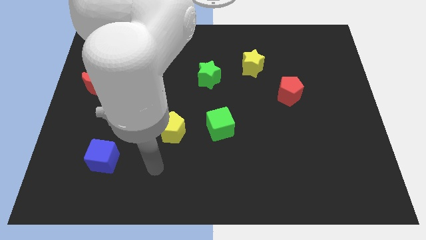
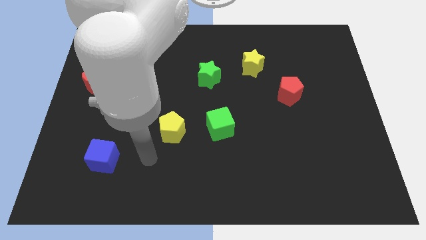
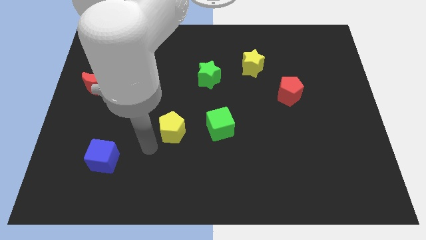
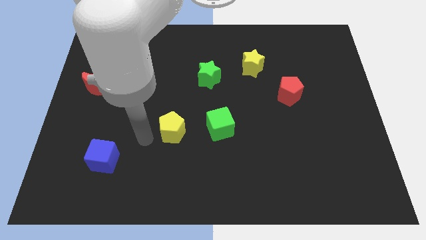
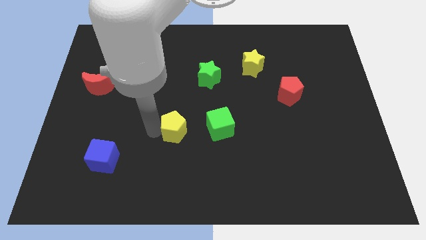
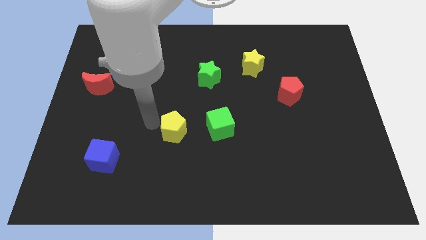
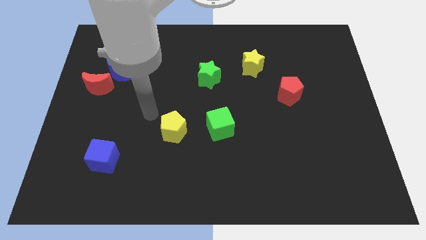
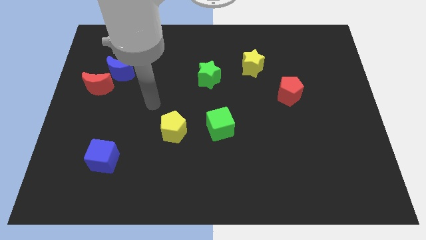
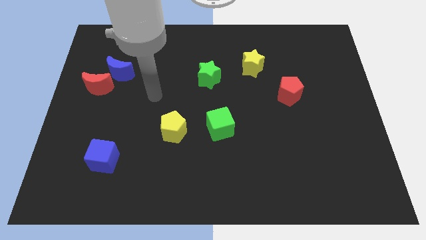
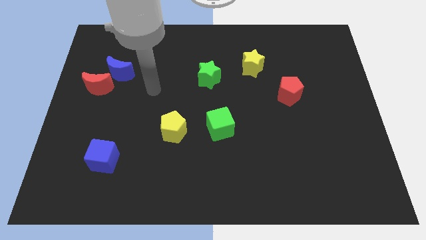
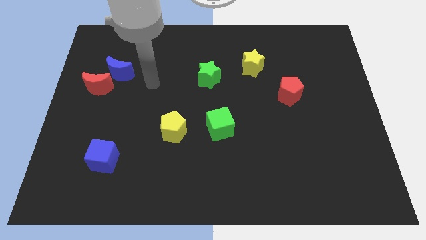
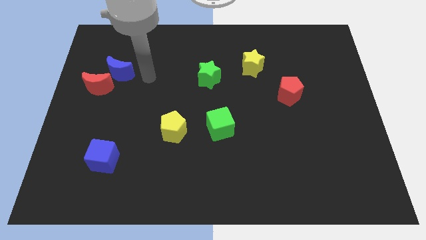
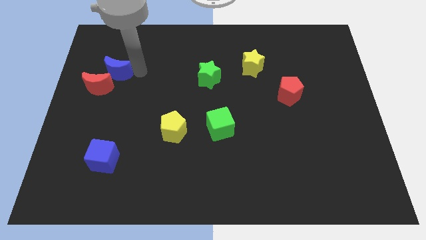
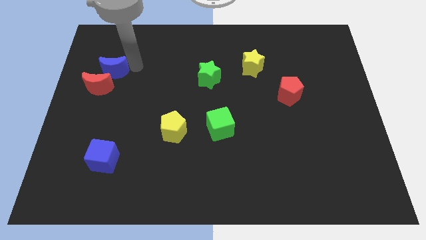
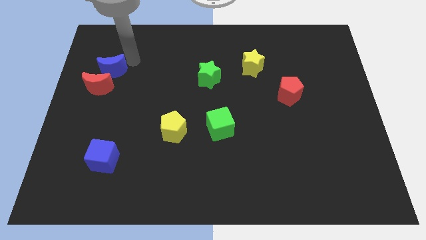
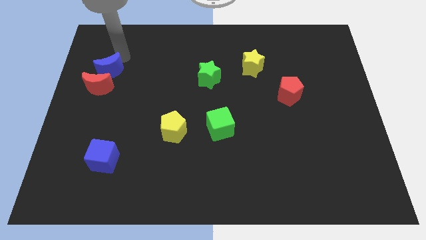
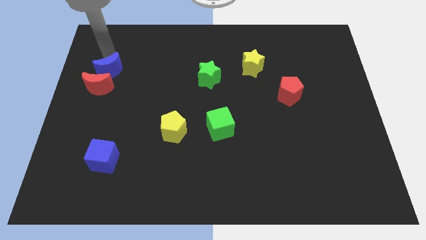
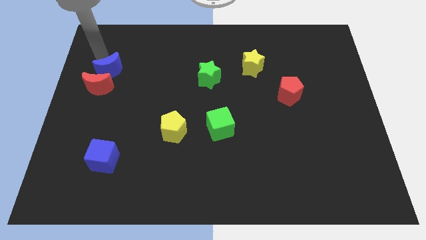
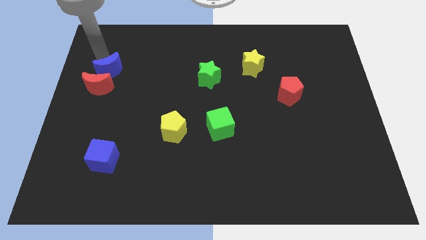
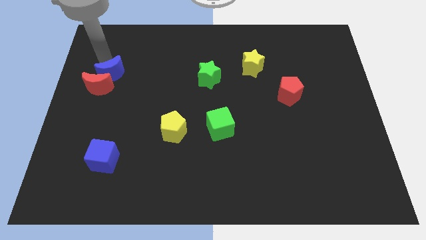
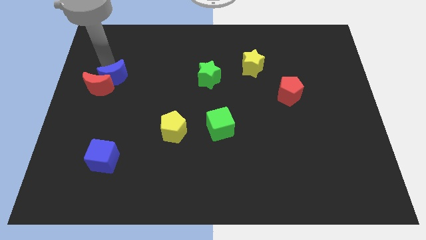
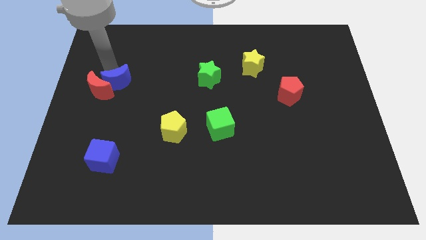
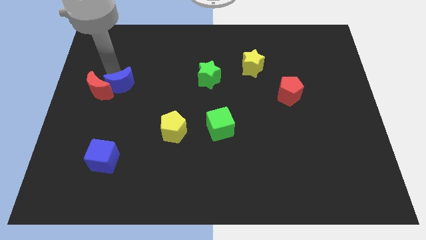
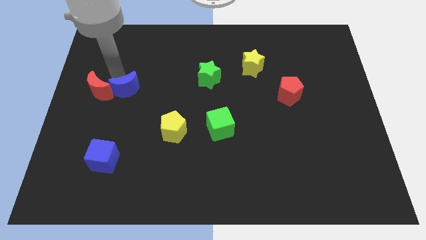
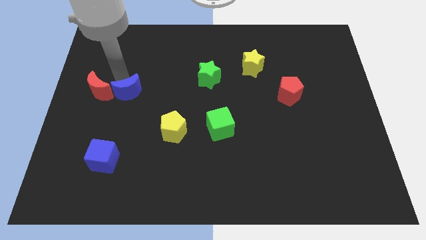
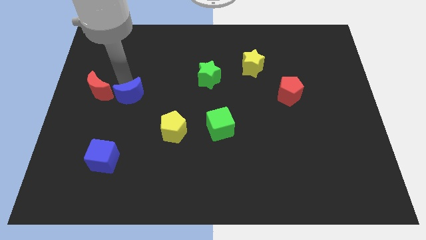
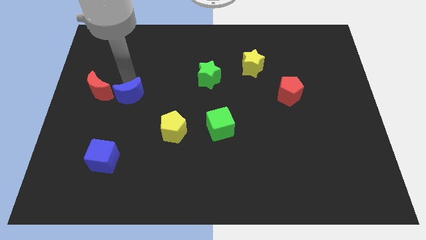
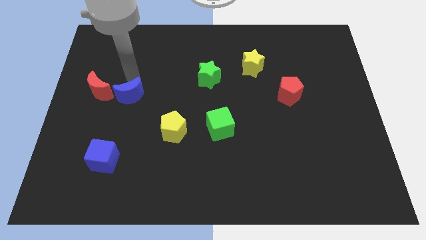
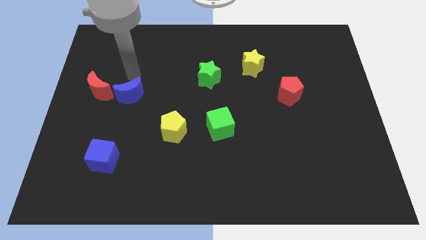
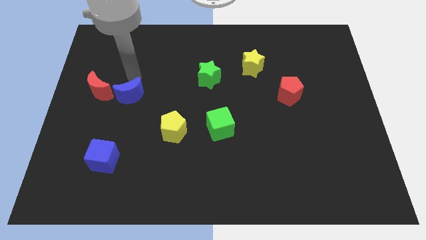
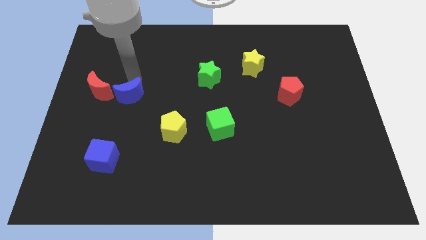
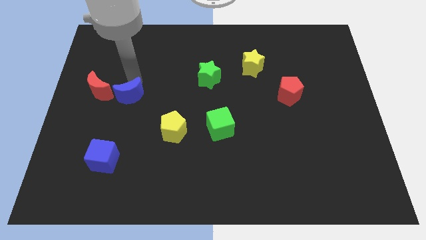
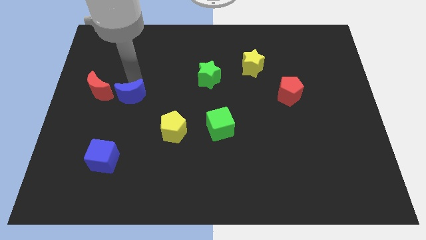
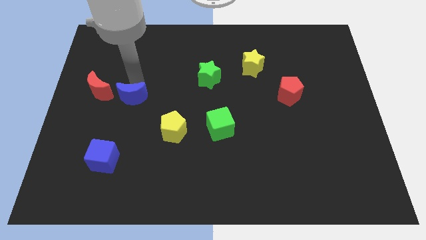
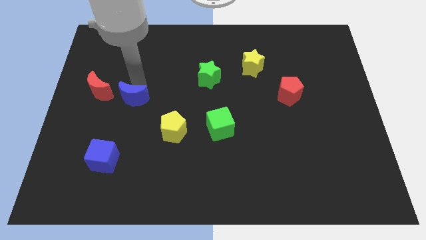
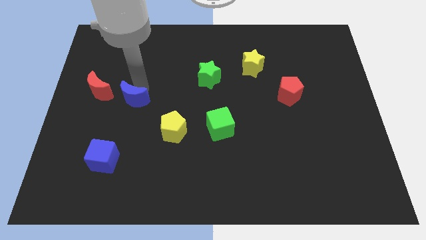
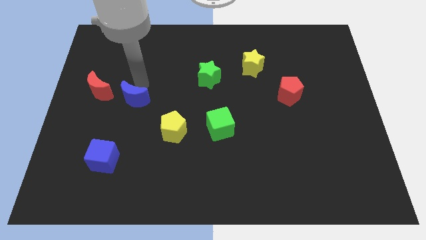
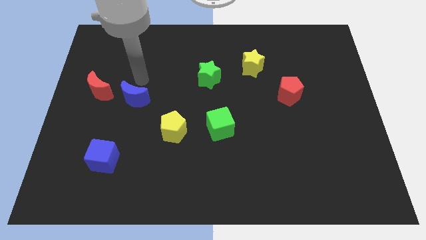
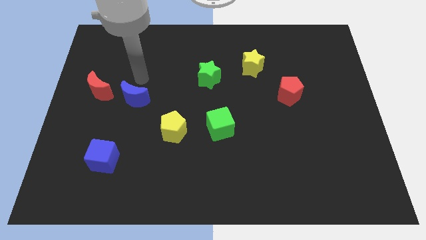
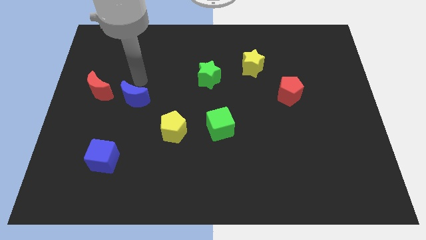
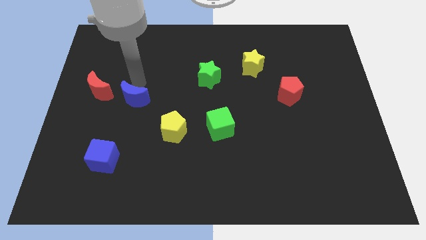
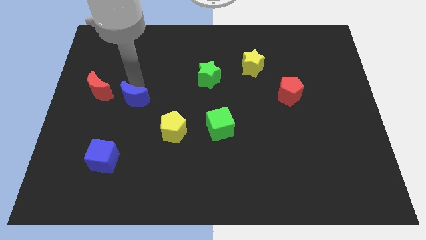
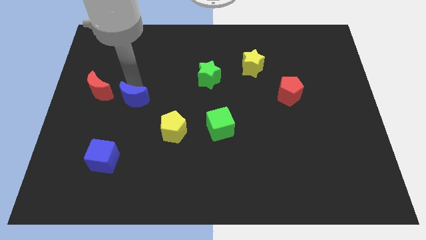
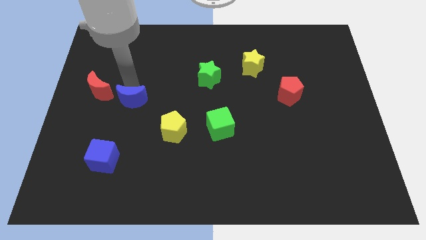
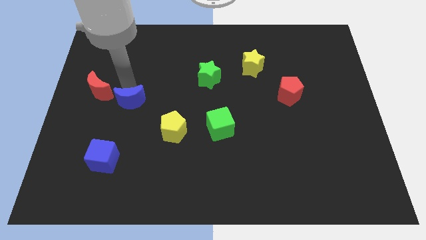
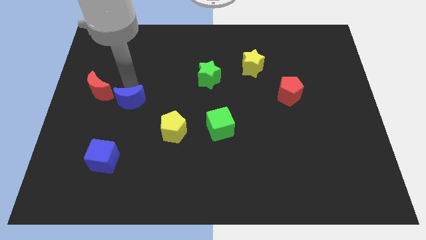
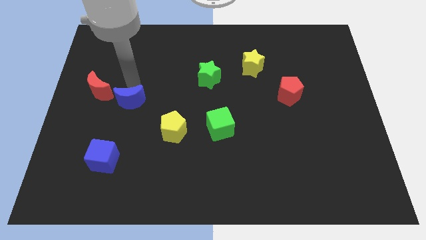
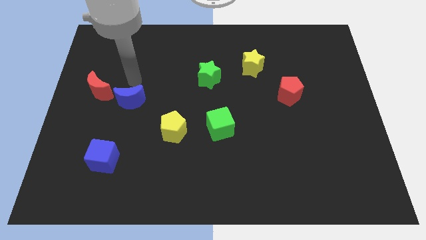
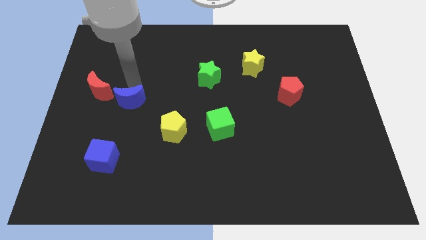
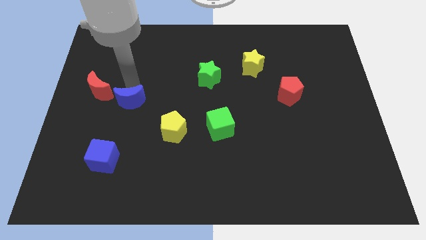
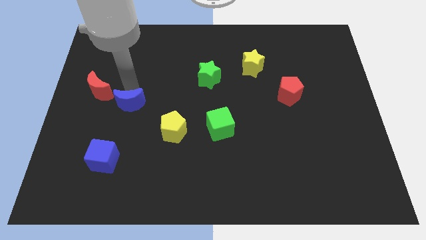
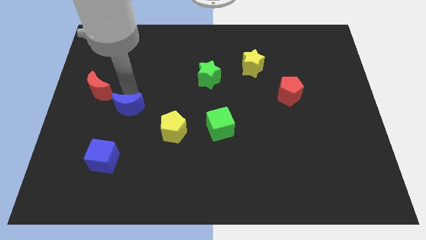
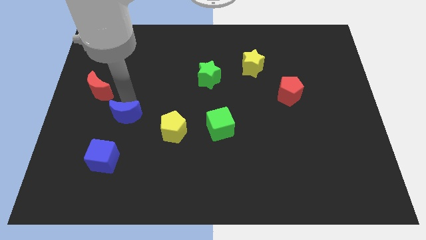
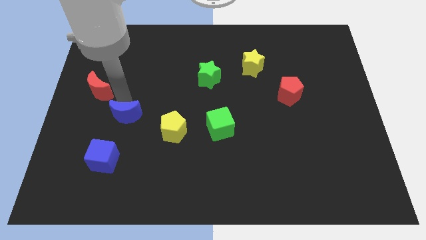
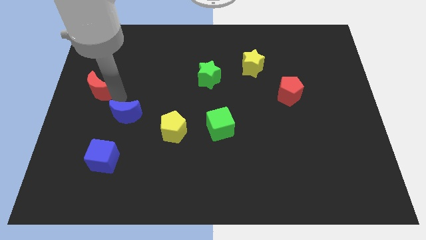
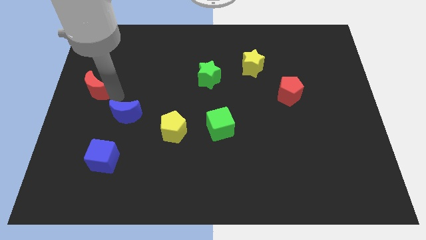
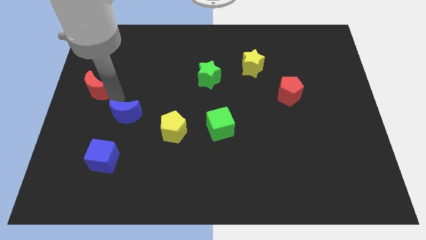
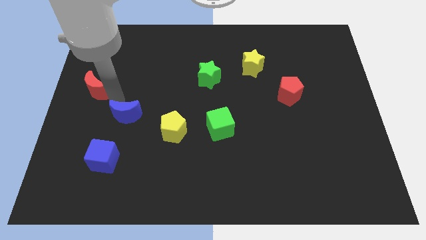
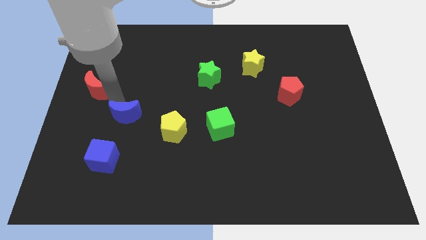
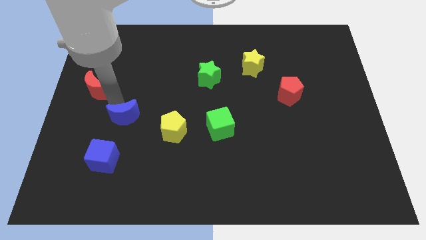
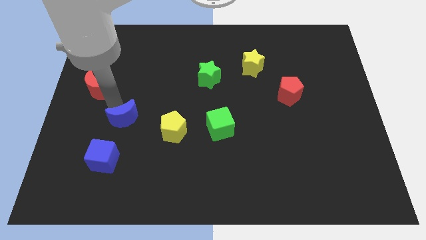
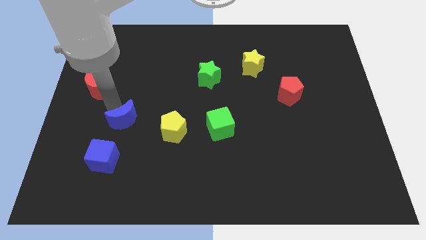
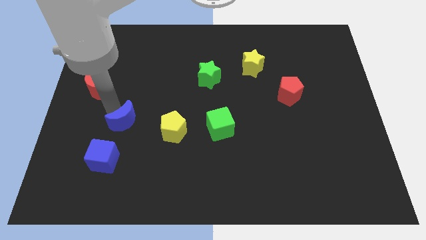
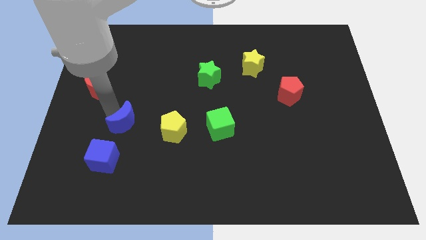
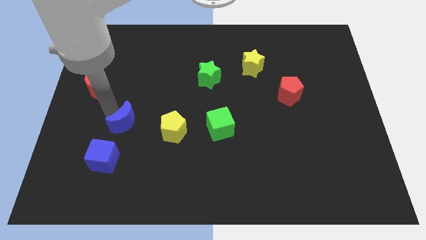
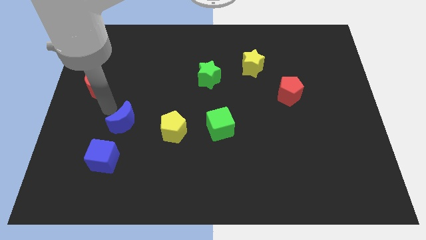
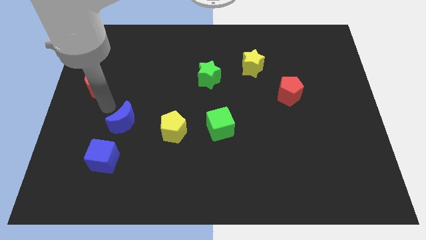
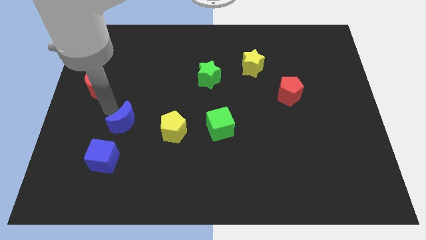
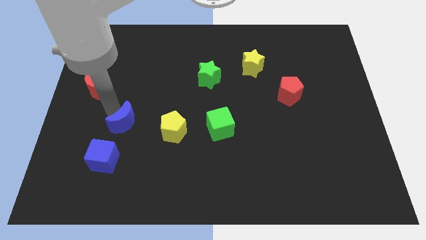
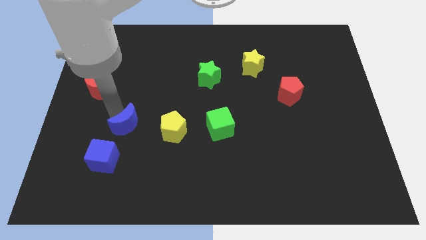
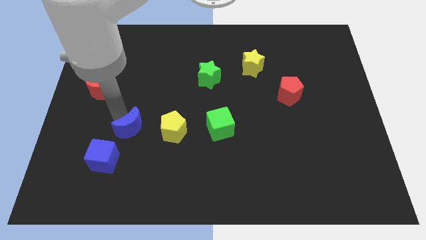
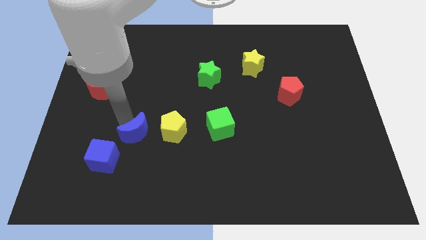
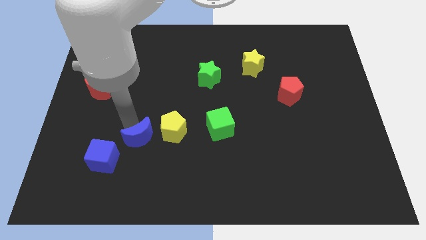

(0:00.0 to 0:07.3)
slide the blue moon diagonally down and to the left of the yellow pentagon
